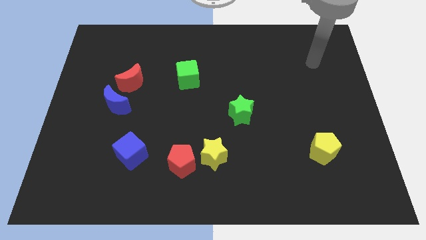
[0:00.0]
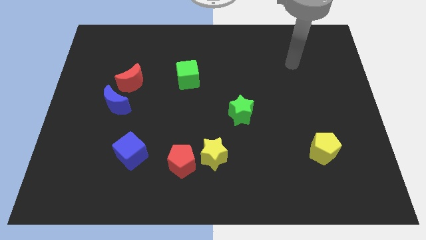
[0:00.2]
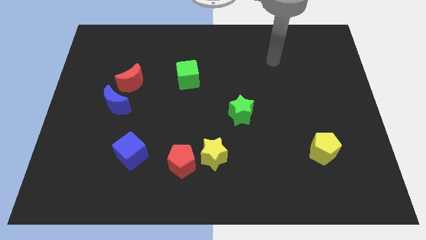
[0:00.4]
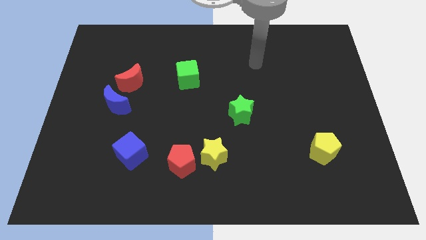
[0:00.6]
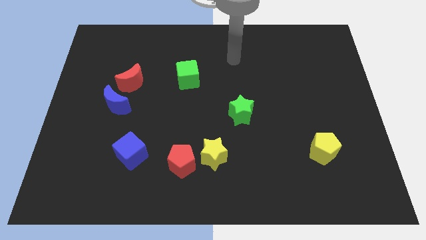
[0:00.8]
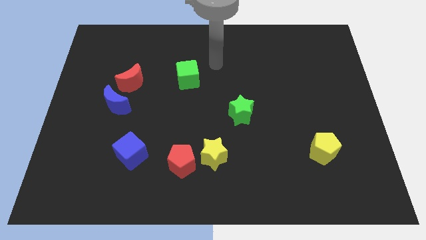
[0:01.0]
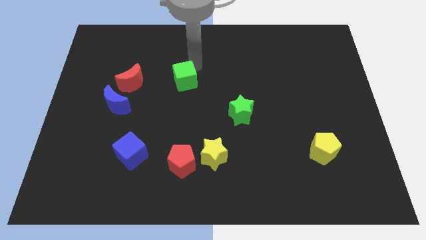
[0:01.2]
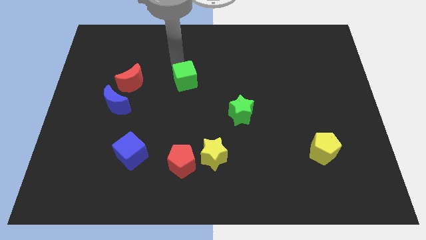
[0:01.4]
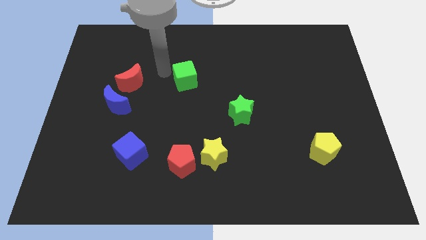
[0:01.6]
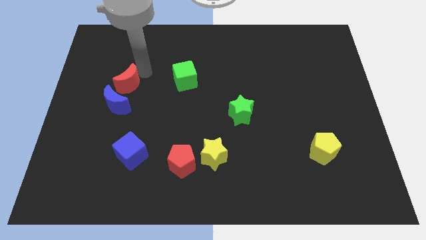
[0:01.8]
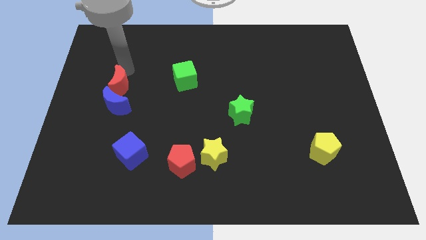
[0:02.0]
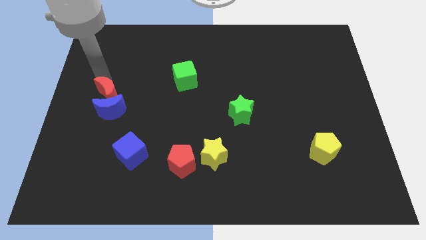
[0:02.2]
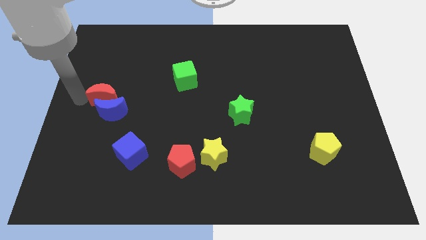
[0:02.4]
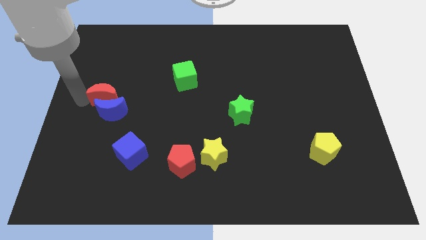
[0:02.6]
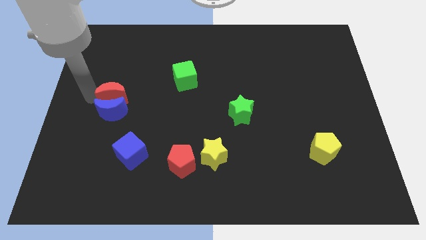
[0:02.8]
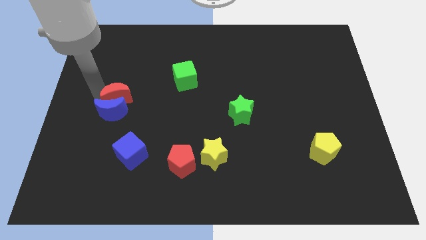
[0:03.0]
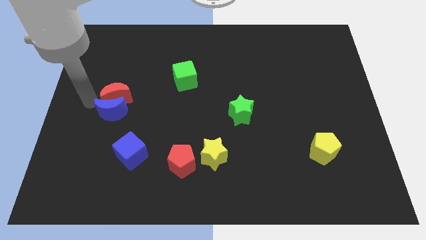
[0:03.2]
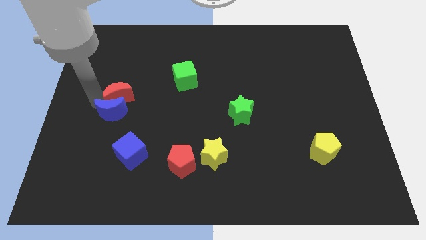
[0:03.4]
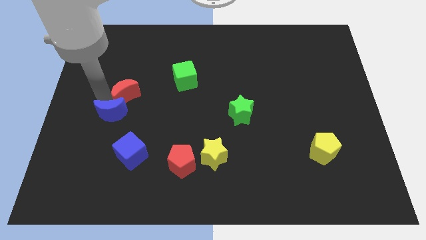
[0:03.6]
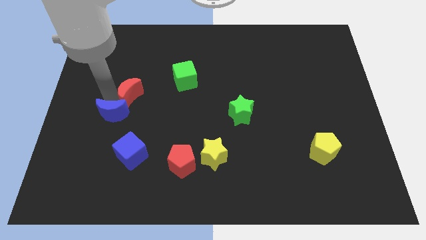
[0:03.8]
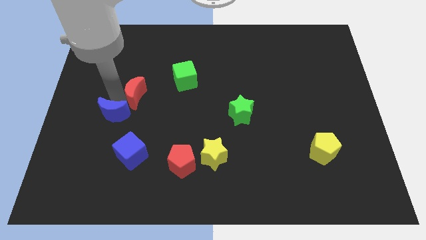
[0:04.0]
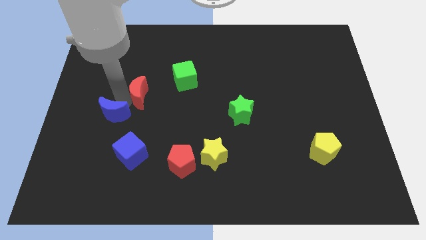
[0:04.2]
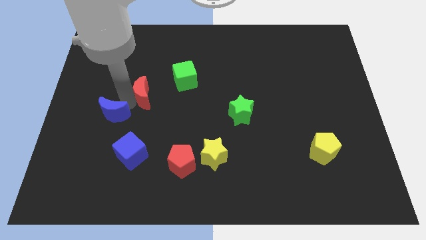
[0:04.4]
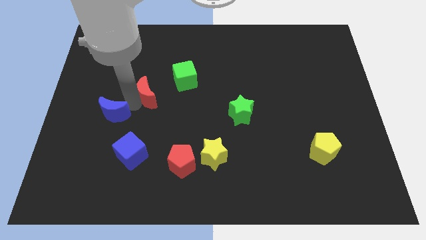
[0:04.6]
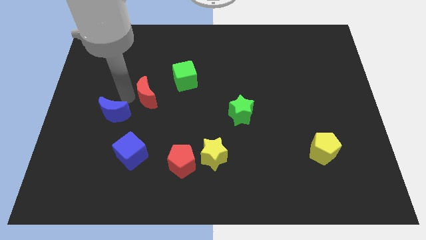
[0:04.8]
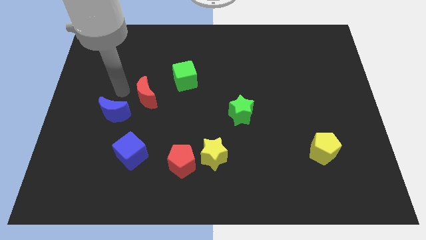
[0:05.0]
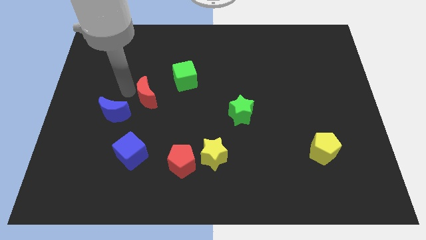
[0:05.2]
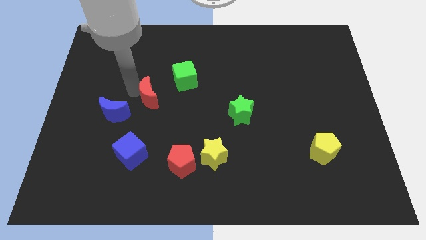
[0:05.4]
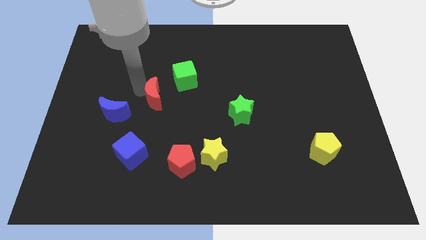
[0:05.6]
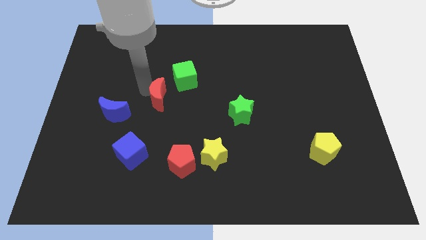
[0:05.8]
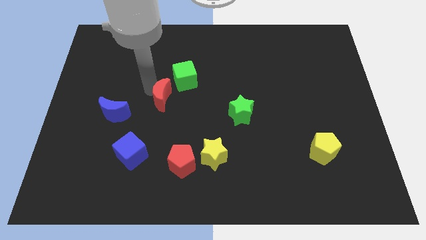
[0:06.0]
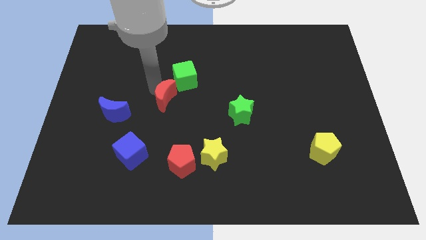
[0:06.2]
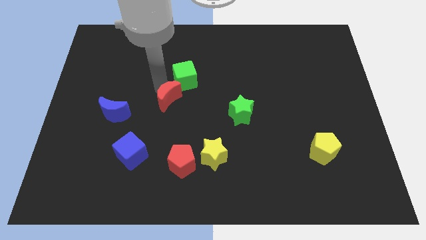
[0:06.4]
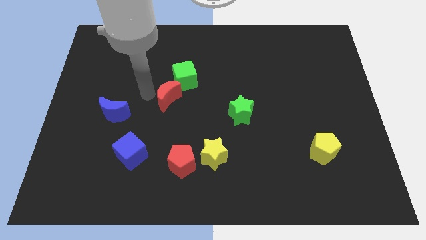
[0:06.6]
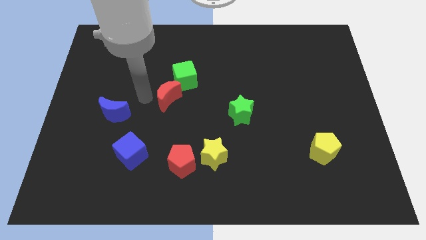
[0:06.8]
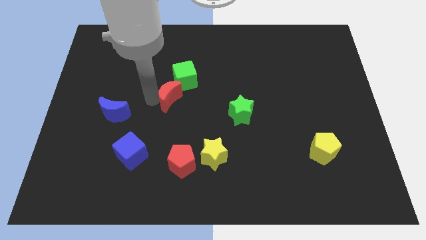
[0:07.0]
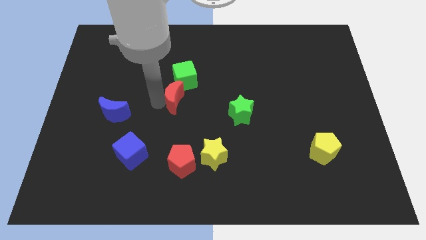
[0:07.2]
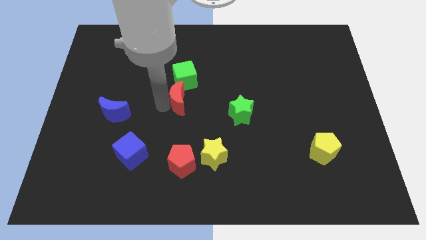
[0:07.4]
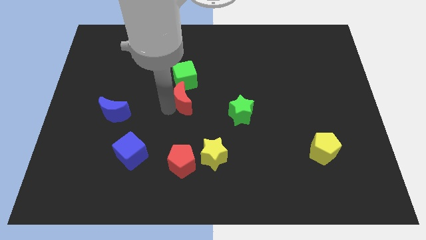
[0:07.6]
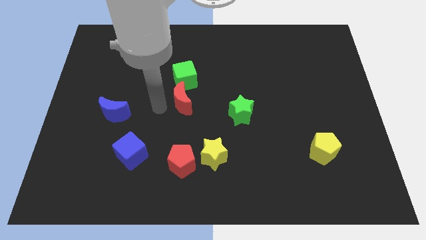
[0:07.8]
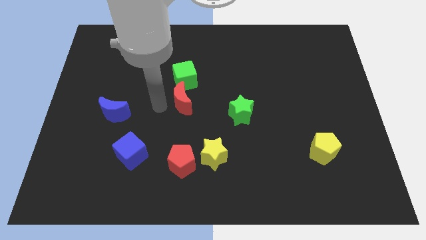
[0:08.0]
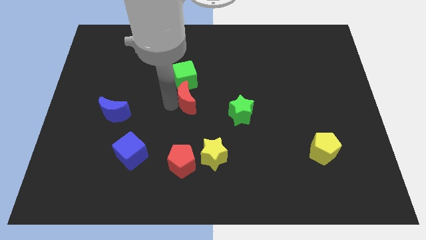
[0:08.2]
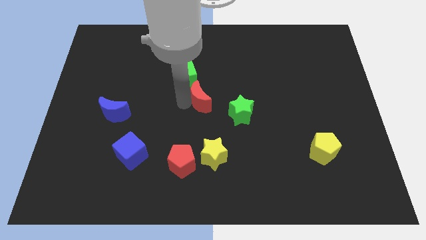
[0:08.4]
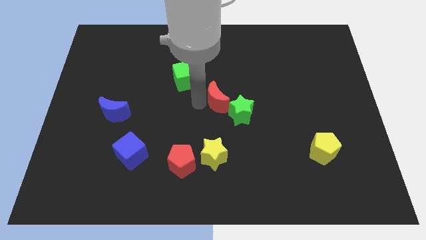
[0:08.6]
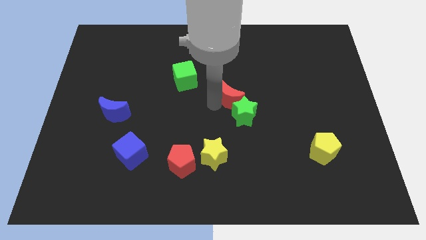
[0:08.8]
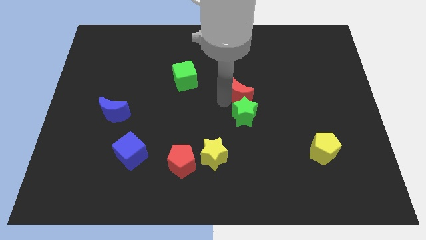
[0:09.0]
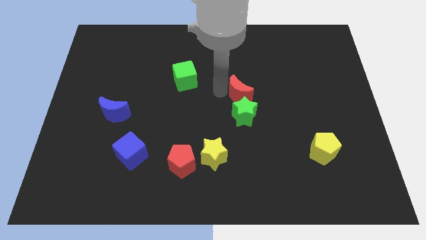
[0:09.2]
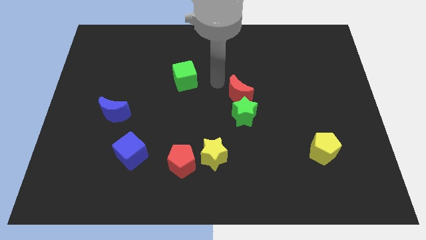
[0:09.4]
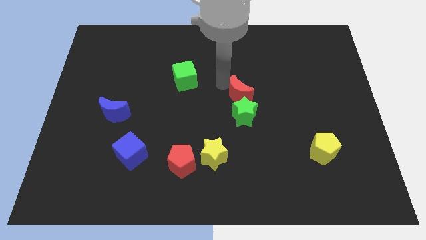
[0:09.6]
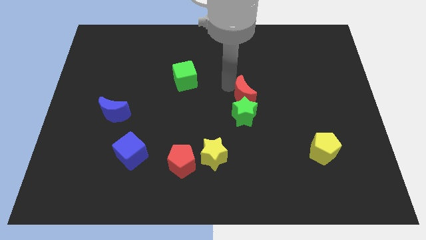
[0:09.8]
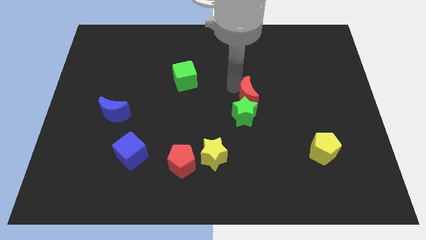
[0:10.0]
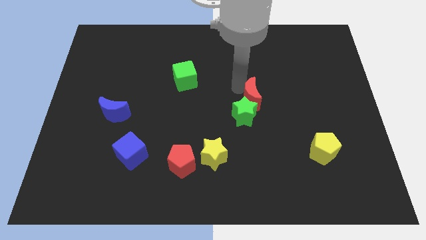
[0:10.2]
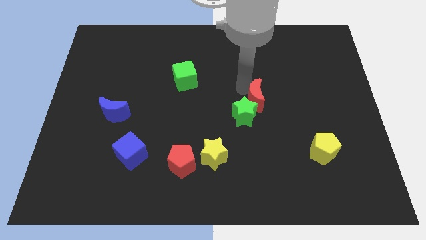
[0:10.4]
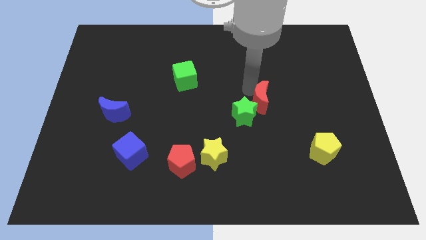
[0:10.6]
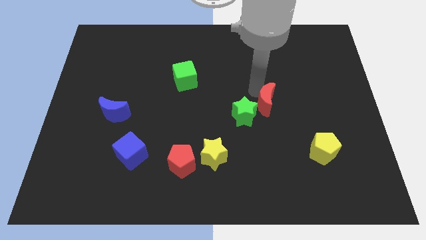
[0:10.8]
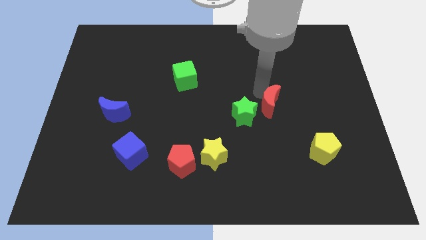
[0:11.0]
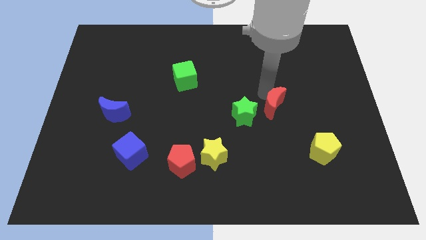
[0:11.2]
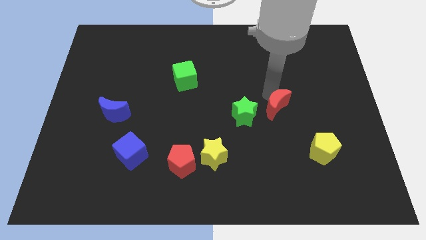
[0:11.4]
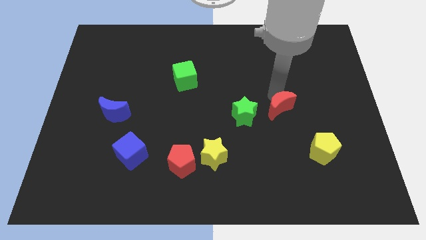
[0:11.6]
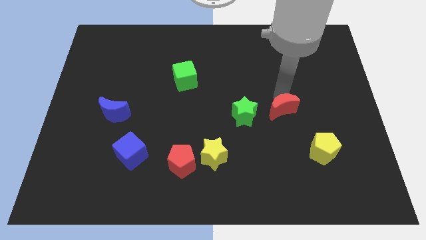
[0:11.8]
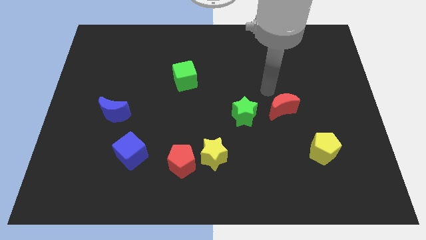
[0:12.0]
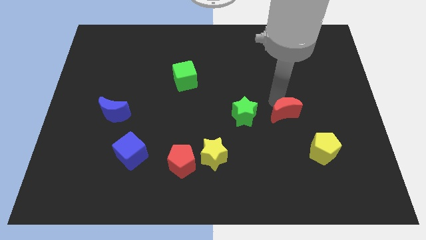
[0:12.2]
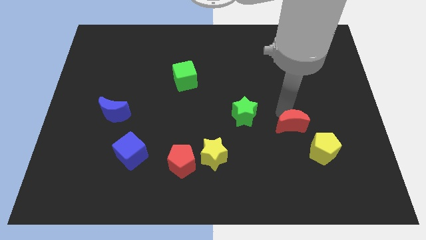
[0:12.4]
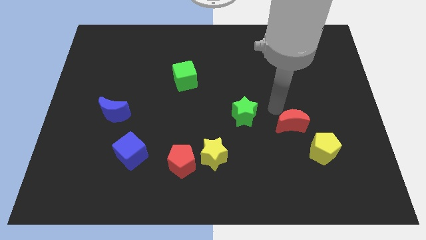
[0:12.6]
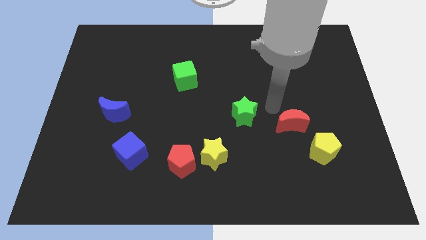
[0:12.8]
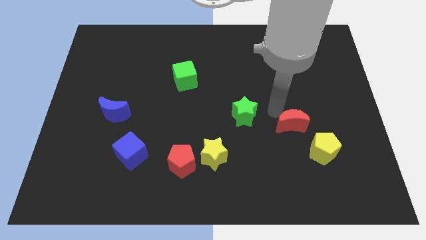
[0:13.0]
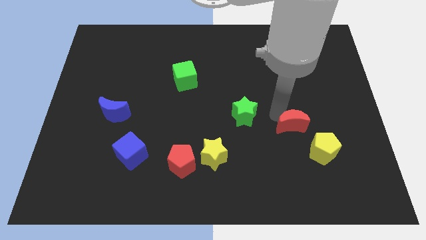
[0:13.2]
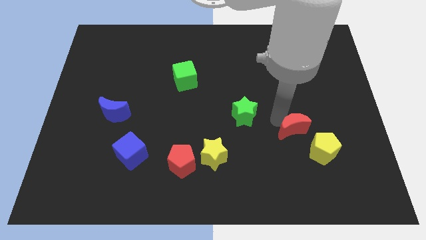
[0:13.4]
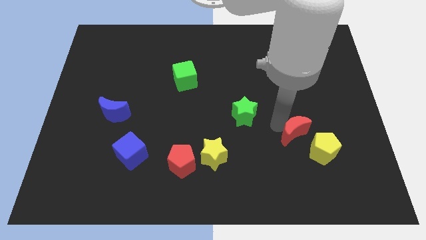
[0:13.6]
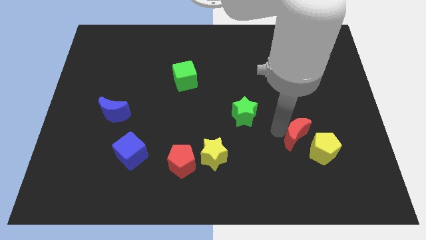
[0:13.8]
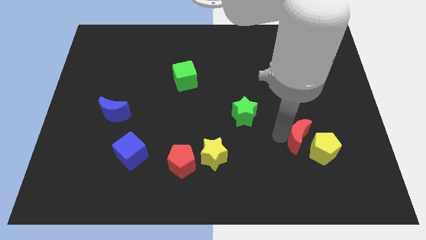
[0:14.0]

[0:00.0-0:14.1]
put the red moon towards the yellow pentagon

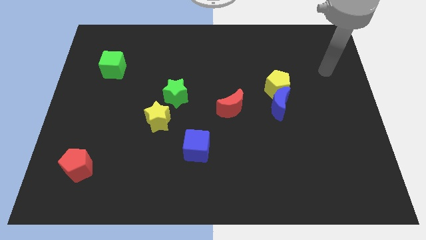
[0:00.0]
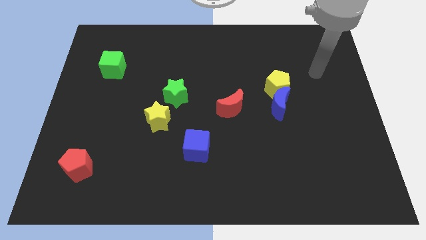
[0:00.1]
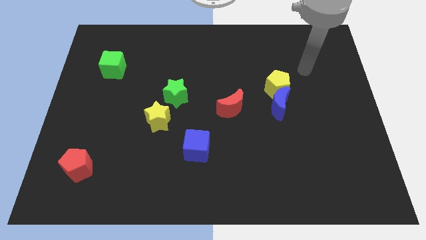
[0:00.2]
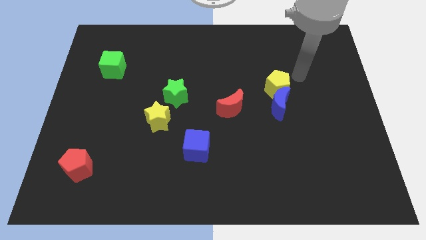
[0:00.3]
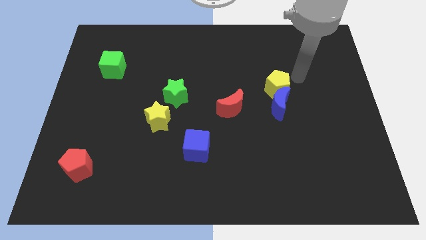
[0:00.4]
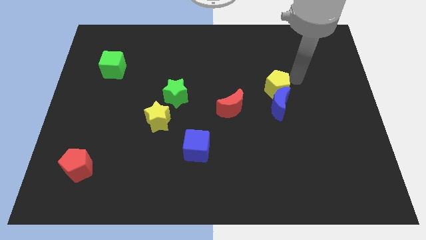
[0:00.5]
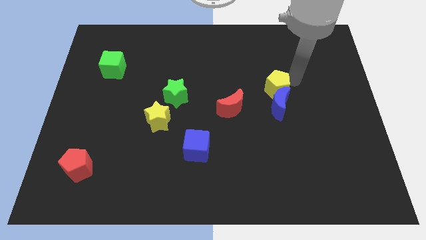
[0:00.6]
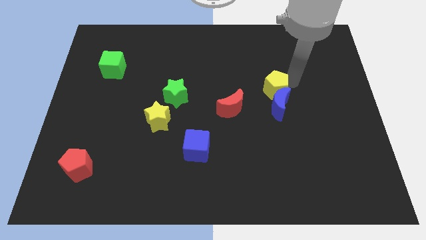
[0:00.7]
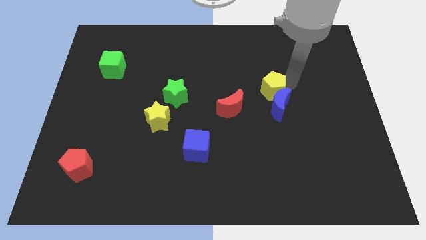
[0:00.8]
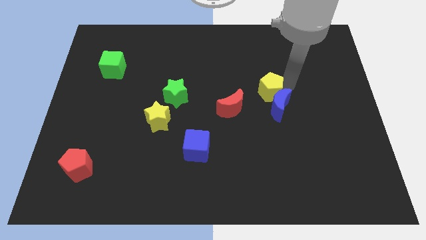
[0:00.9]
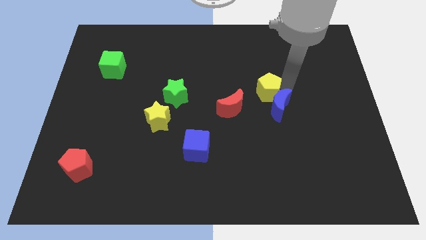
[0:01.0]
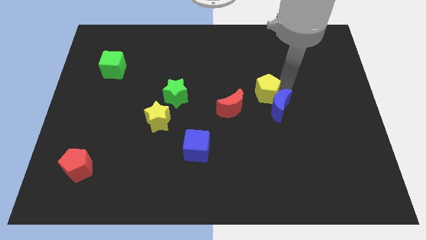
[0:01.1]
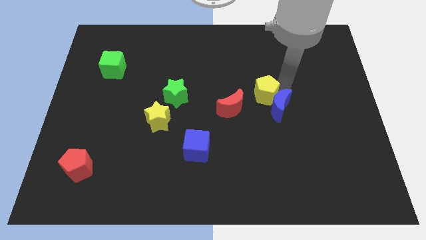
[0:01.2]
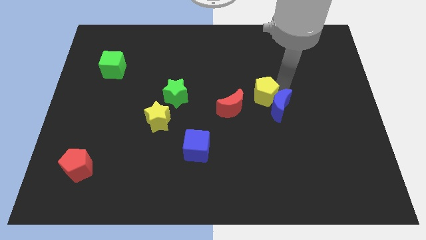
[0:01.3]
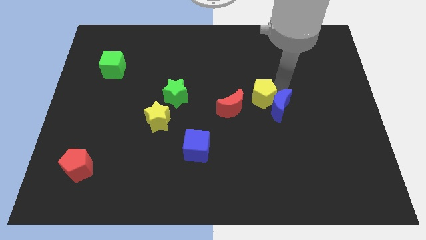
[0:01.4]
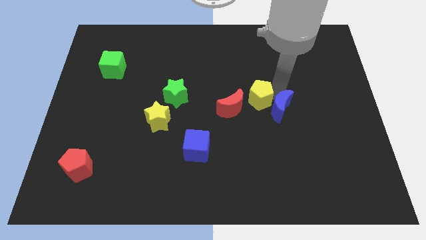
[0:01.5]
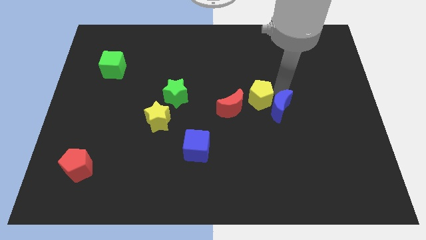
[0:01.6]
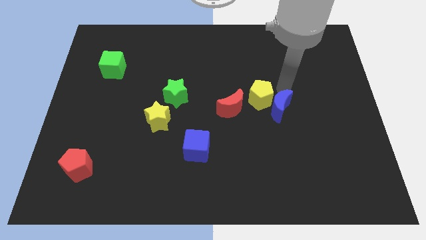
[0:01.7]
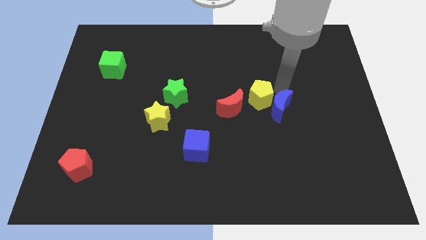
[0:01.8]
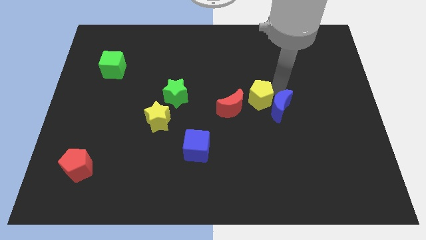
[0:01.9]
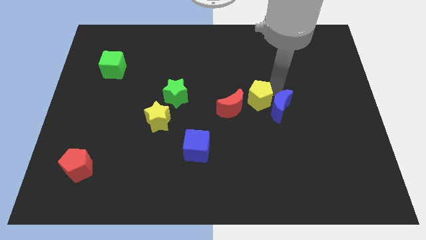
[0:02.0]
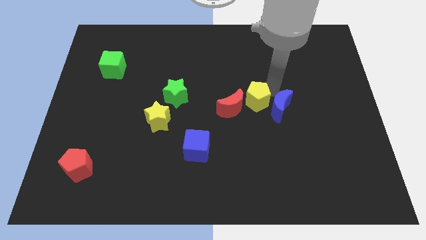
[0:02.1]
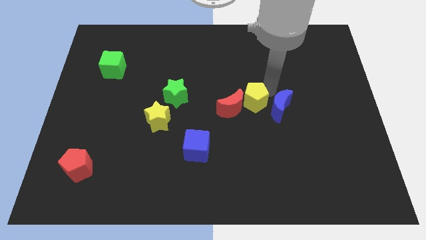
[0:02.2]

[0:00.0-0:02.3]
move the yellow pentagon close to the red moon
